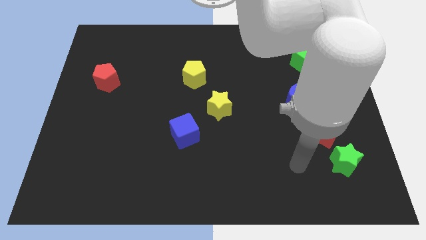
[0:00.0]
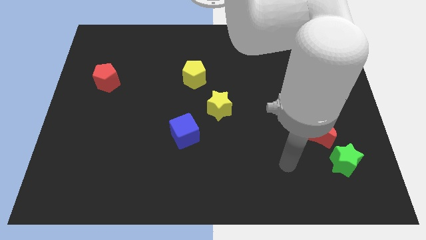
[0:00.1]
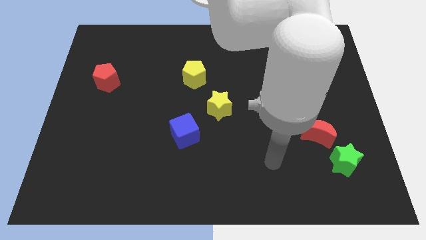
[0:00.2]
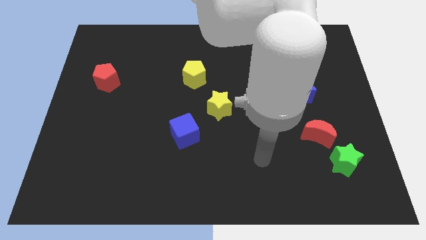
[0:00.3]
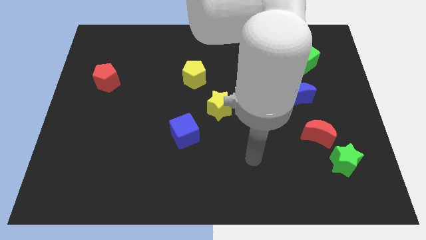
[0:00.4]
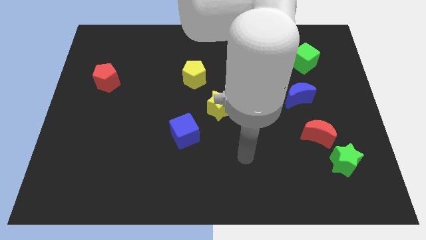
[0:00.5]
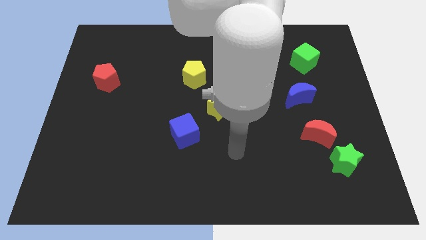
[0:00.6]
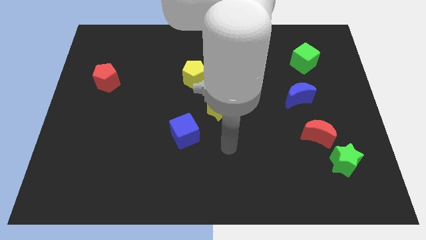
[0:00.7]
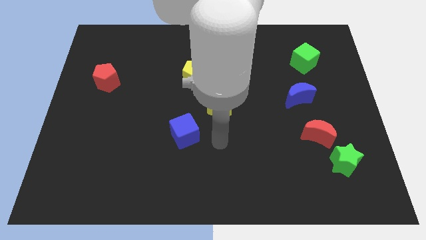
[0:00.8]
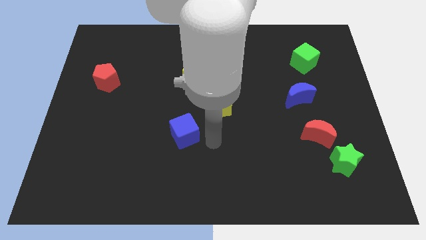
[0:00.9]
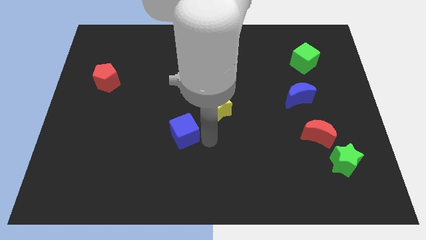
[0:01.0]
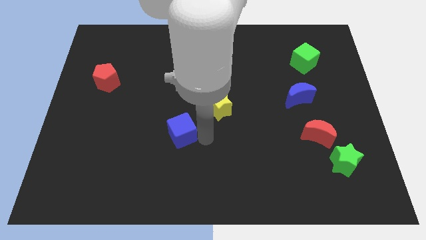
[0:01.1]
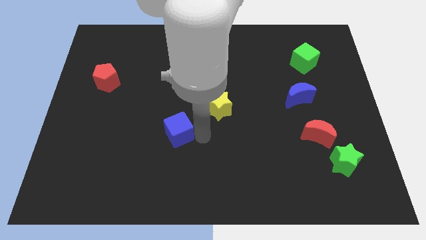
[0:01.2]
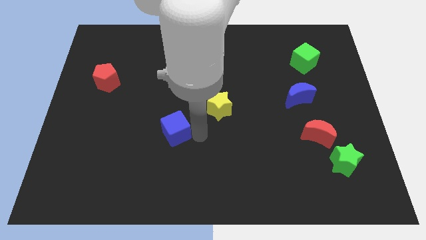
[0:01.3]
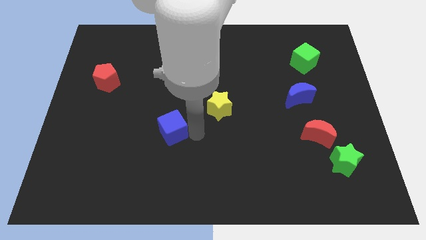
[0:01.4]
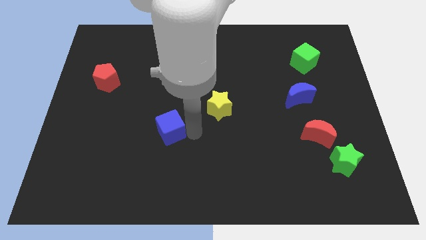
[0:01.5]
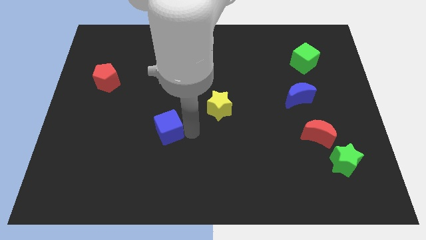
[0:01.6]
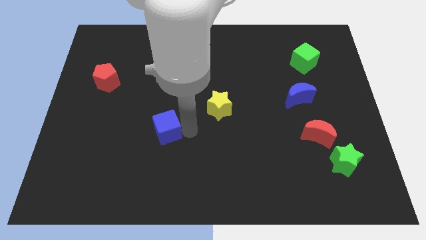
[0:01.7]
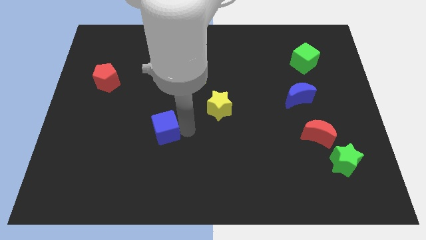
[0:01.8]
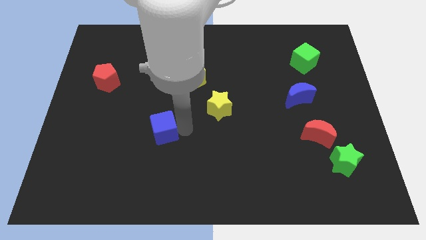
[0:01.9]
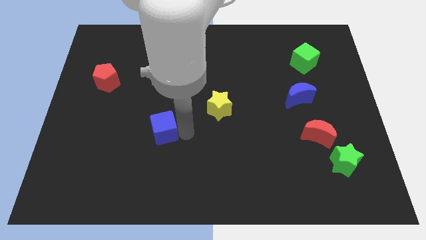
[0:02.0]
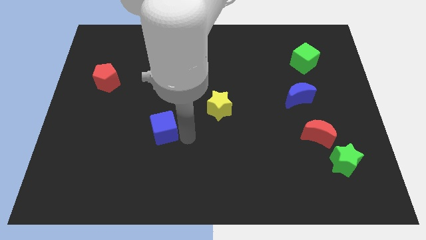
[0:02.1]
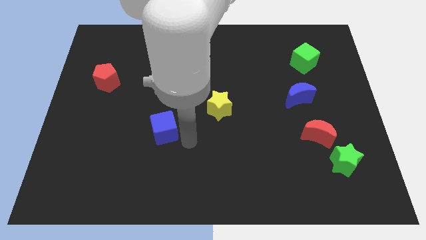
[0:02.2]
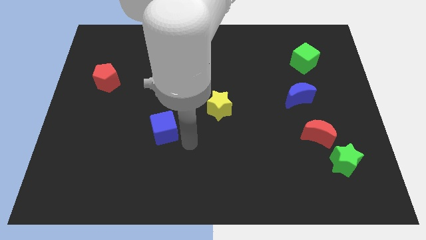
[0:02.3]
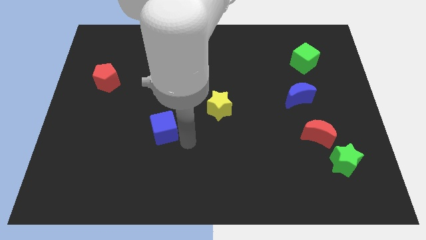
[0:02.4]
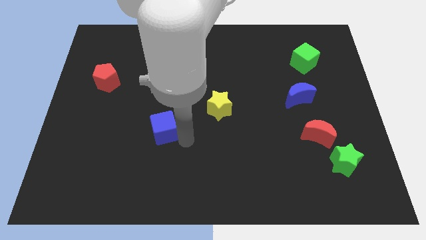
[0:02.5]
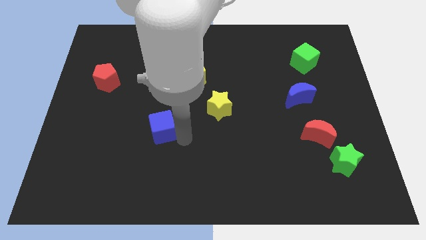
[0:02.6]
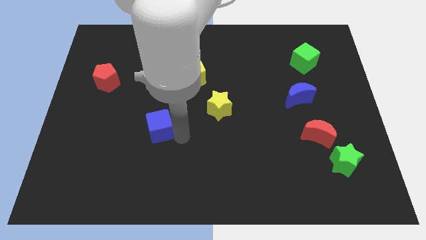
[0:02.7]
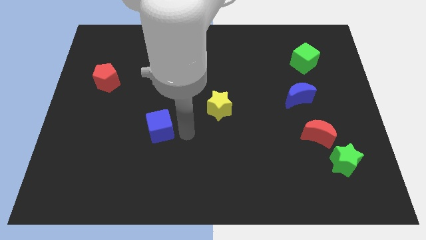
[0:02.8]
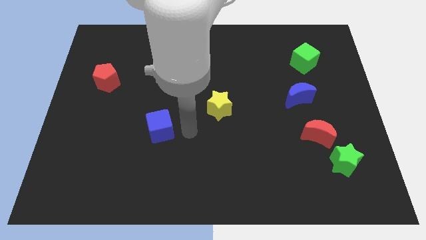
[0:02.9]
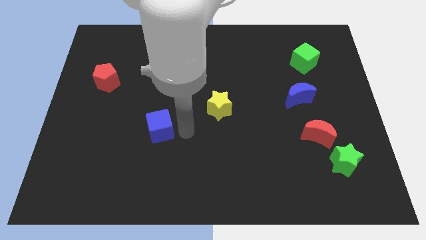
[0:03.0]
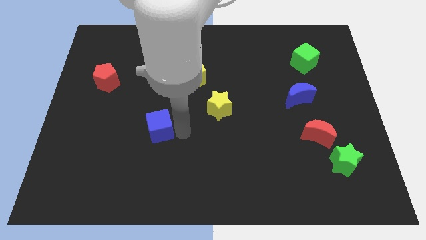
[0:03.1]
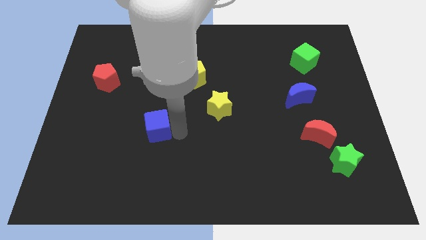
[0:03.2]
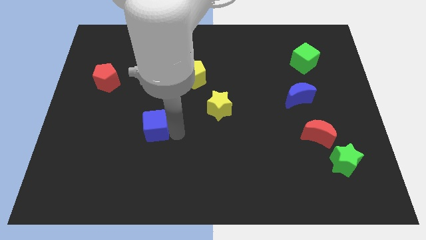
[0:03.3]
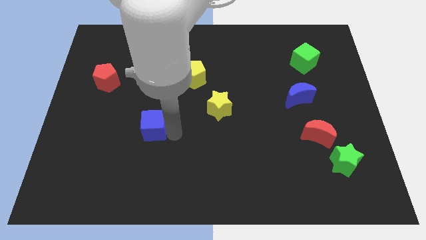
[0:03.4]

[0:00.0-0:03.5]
slightly slide the blue cube left

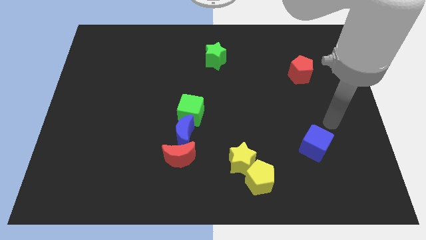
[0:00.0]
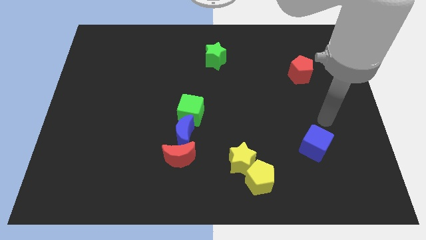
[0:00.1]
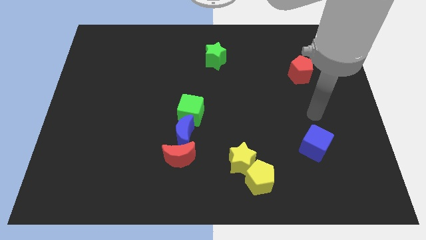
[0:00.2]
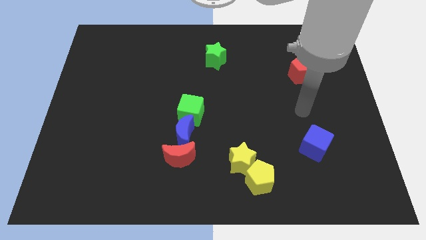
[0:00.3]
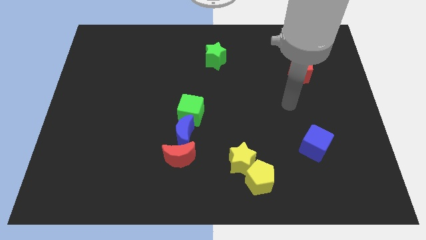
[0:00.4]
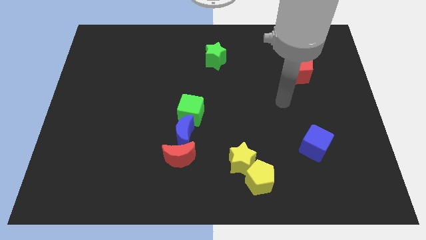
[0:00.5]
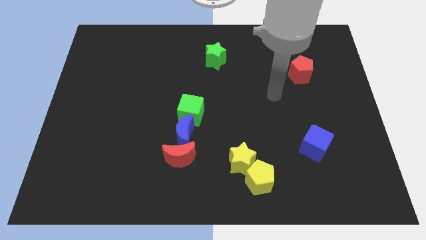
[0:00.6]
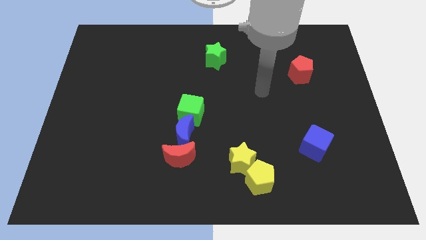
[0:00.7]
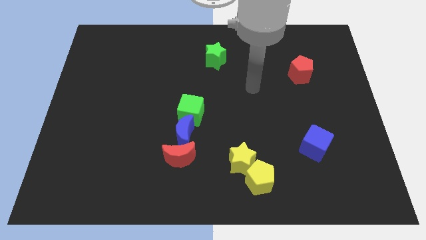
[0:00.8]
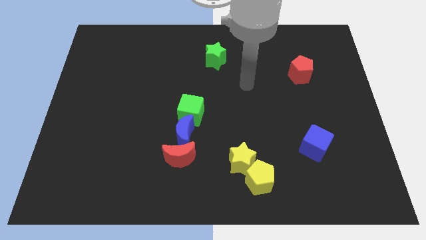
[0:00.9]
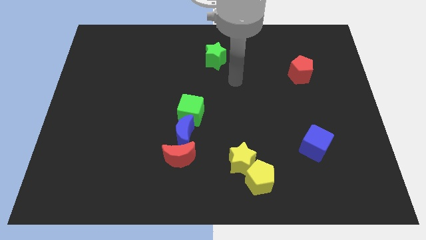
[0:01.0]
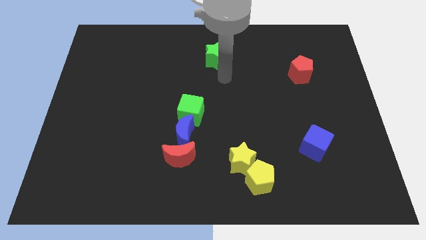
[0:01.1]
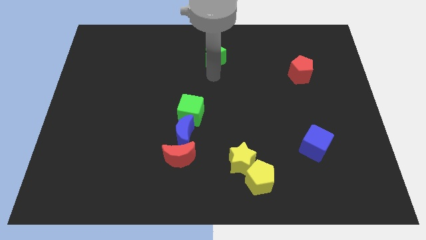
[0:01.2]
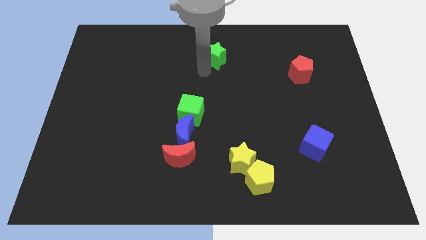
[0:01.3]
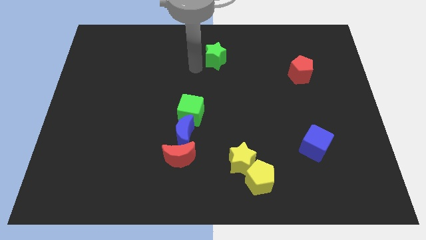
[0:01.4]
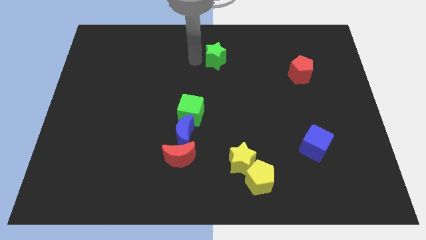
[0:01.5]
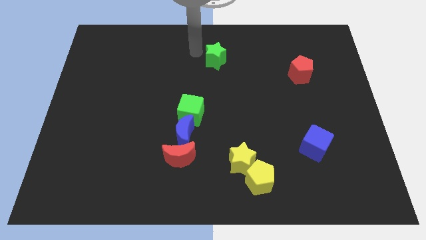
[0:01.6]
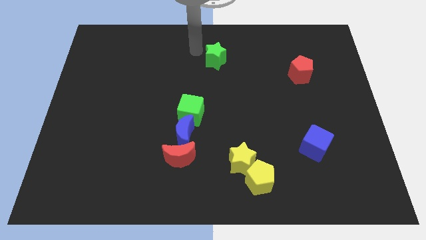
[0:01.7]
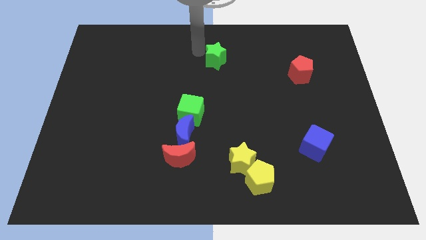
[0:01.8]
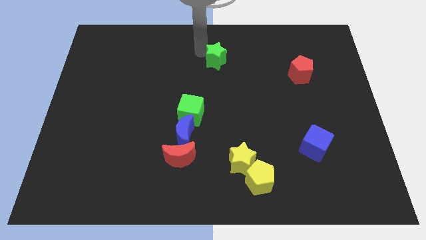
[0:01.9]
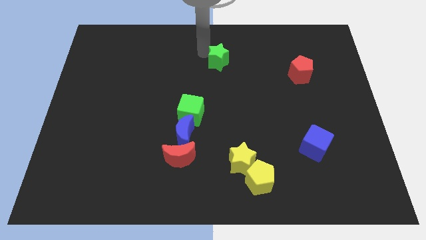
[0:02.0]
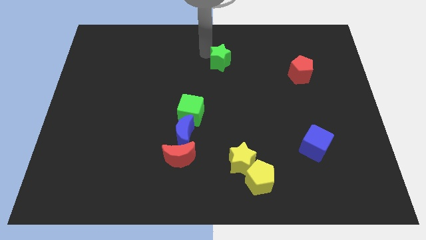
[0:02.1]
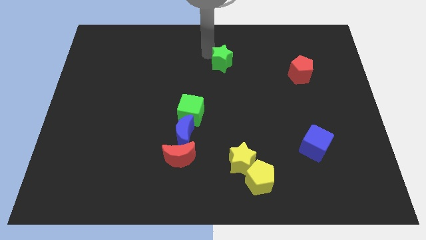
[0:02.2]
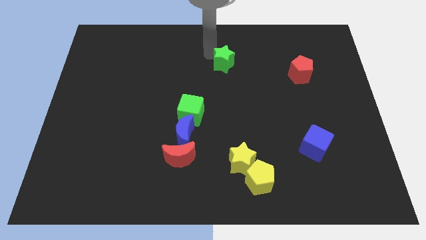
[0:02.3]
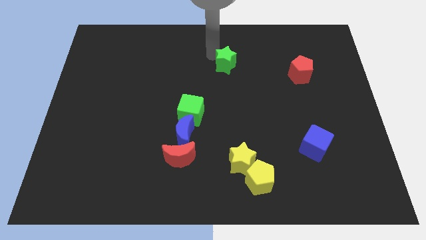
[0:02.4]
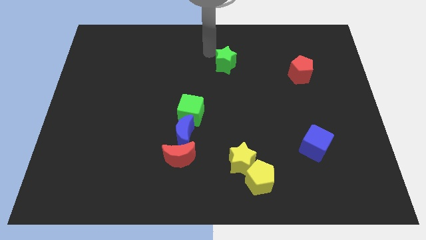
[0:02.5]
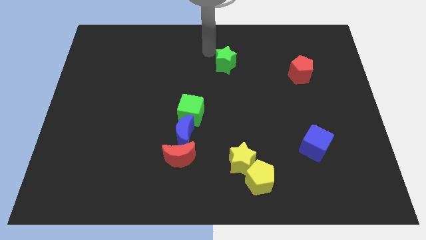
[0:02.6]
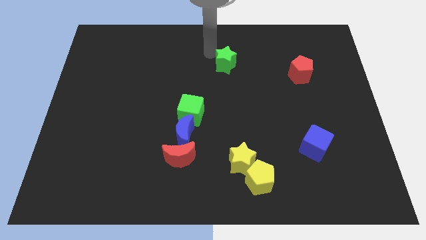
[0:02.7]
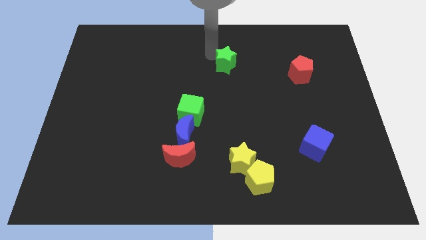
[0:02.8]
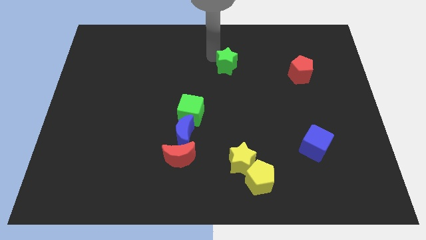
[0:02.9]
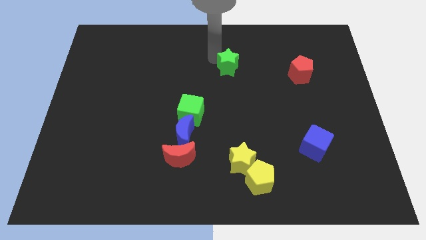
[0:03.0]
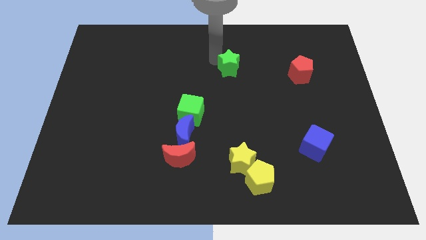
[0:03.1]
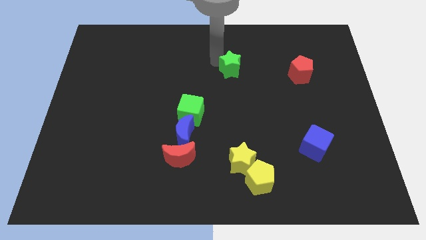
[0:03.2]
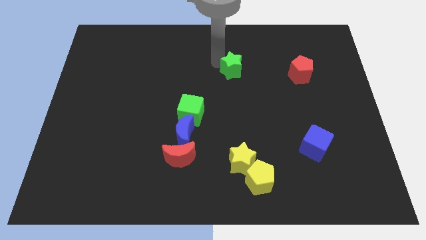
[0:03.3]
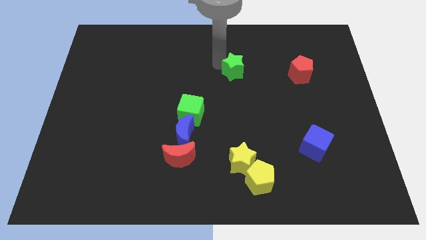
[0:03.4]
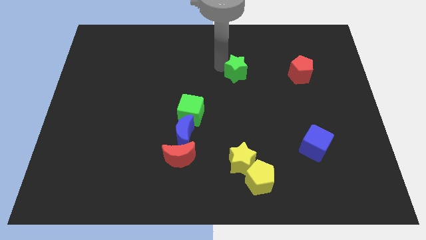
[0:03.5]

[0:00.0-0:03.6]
slightly push the green star down and right

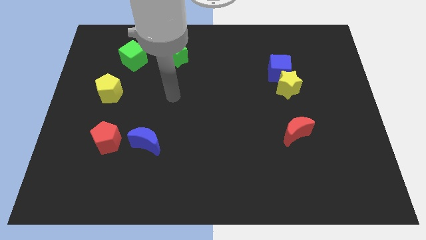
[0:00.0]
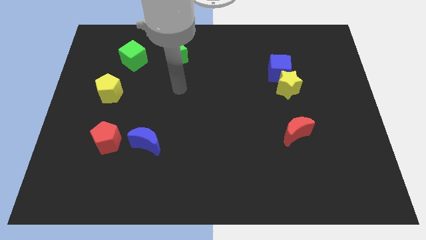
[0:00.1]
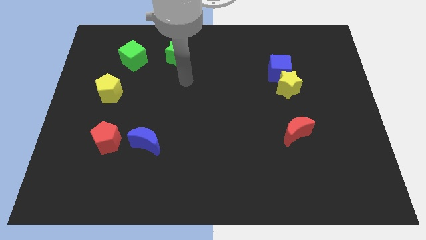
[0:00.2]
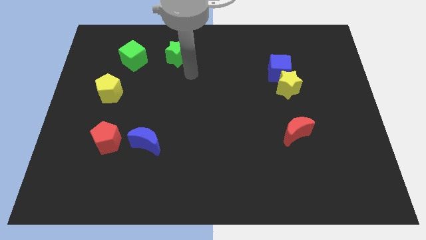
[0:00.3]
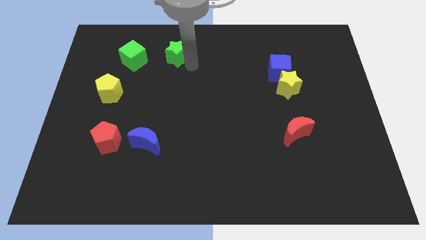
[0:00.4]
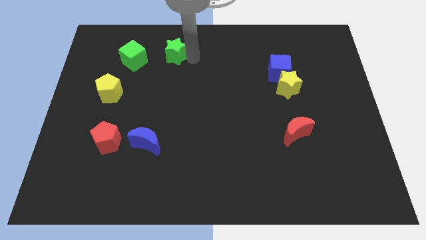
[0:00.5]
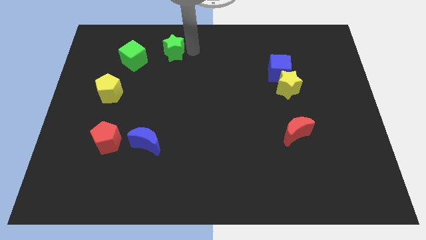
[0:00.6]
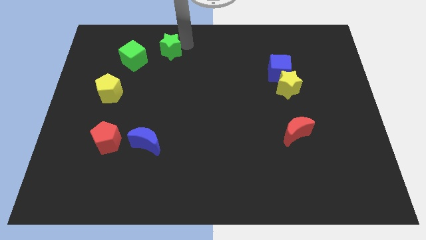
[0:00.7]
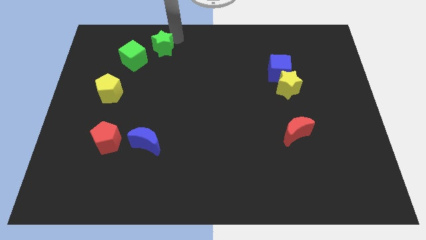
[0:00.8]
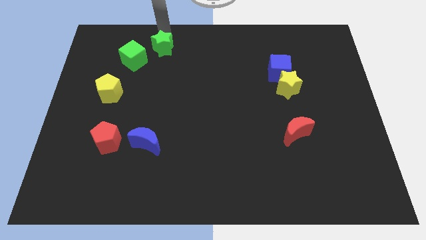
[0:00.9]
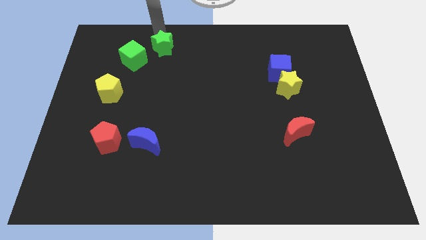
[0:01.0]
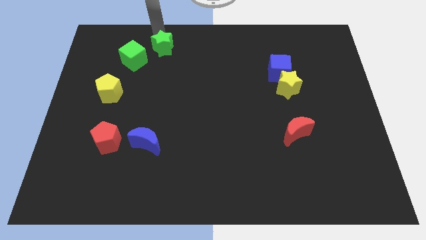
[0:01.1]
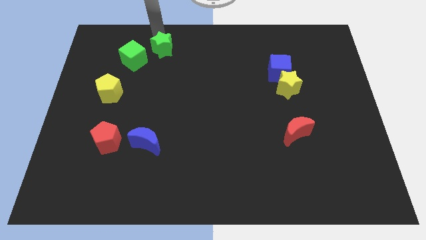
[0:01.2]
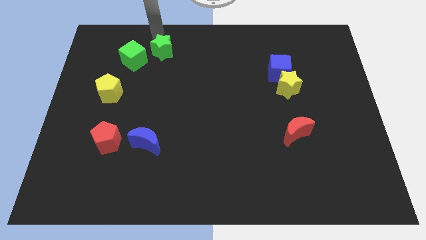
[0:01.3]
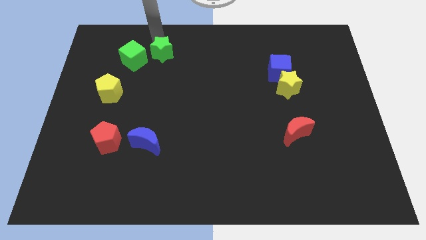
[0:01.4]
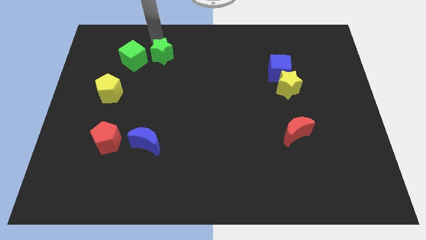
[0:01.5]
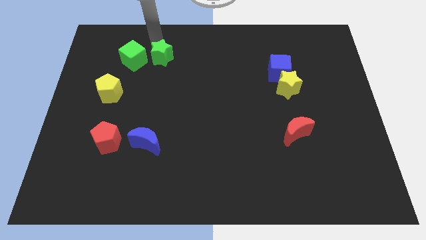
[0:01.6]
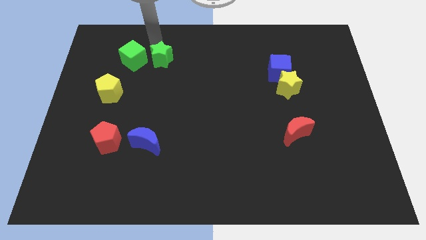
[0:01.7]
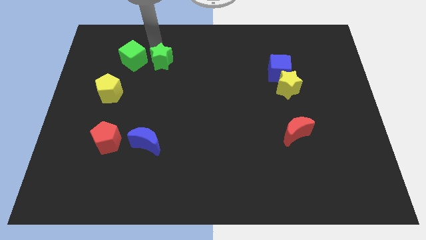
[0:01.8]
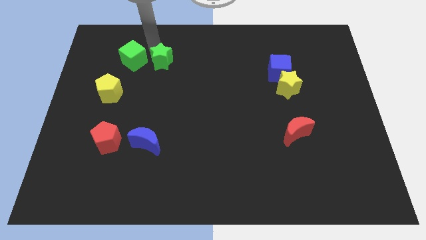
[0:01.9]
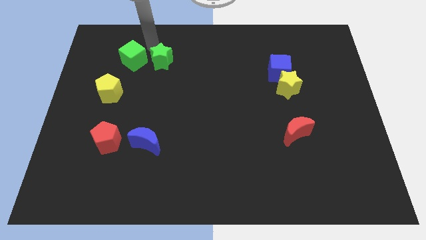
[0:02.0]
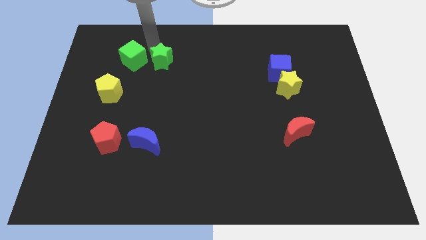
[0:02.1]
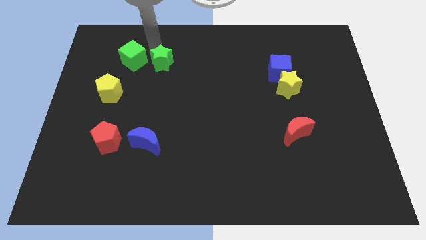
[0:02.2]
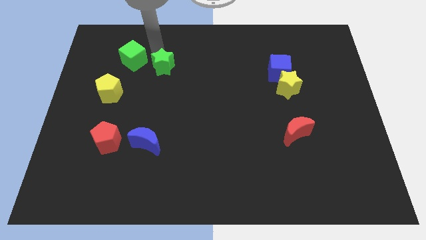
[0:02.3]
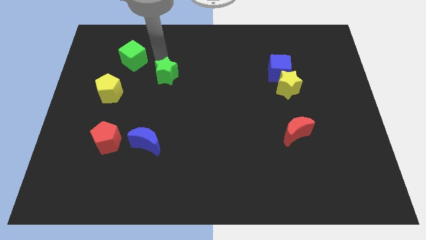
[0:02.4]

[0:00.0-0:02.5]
slide the green star down a little
